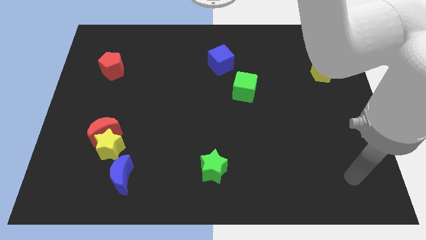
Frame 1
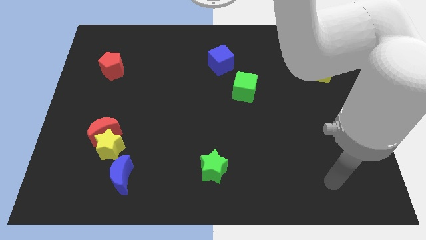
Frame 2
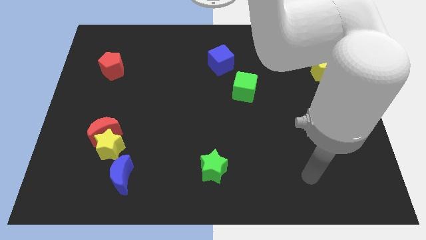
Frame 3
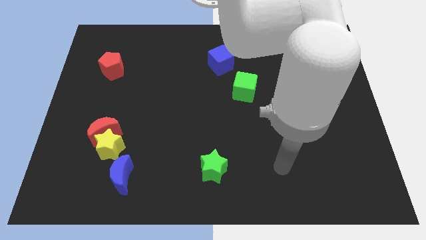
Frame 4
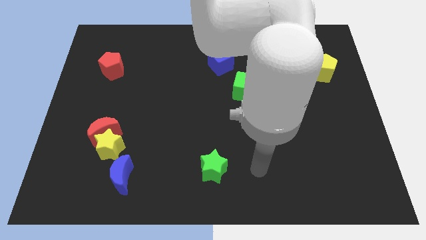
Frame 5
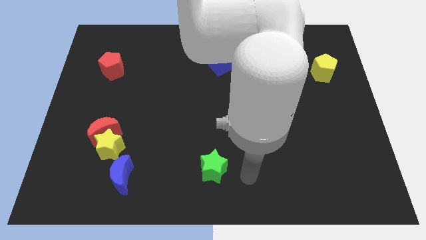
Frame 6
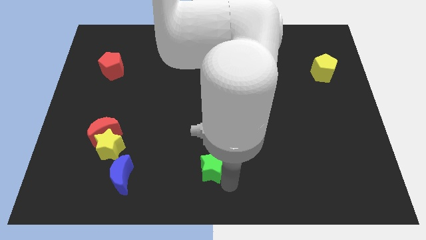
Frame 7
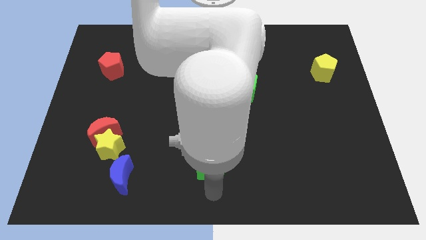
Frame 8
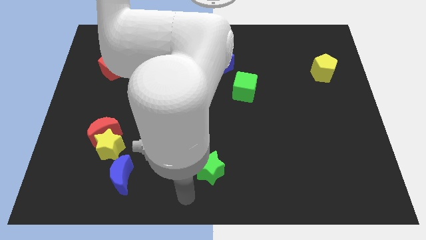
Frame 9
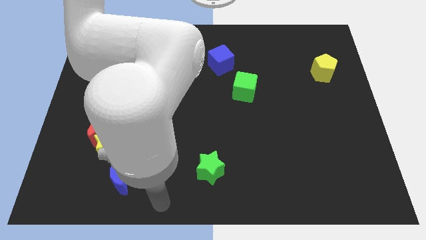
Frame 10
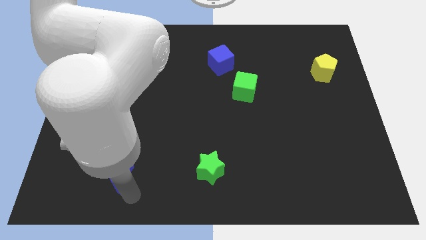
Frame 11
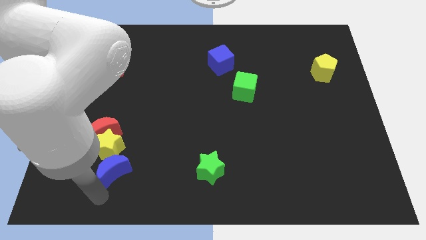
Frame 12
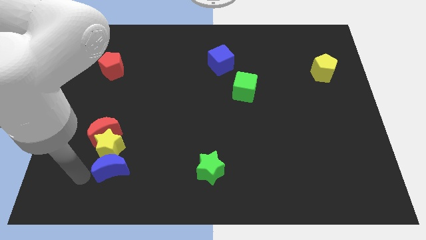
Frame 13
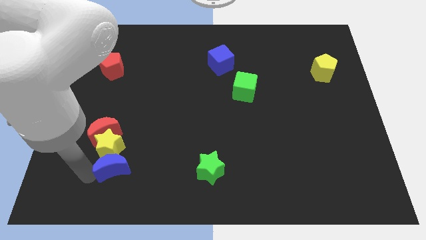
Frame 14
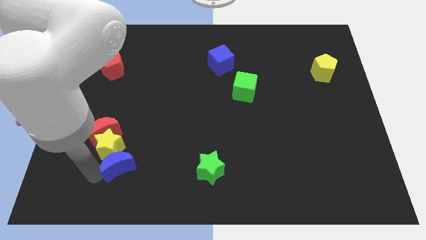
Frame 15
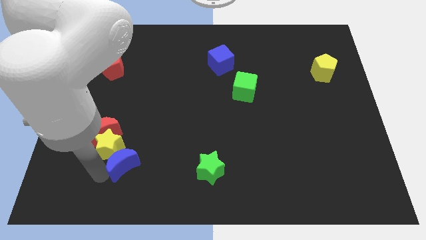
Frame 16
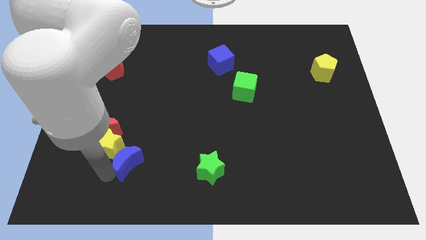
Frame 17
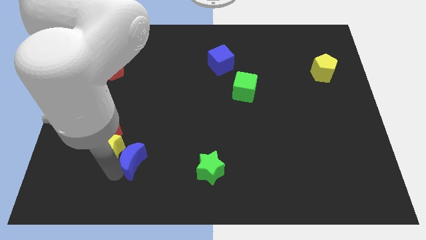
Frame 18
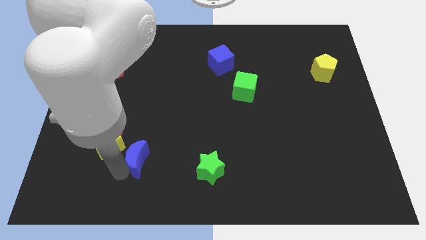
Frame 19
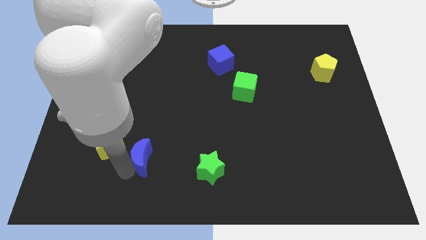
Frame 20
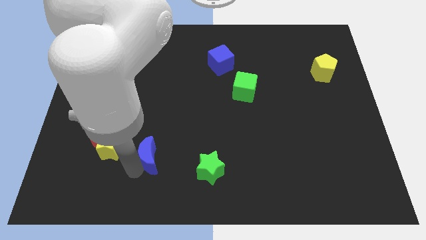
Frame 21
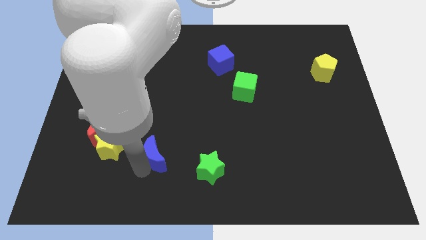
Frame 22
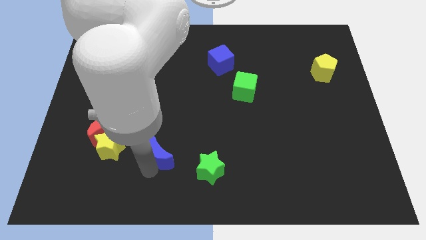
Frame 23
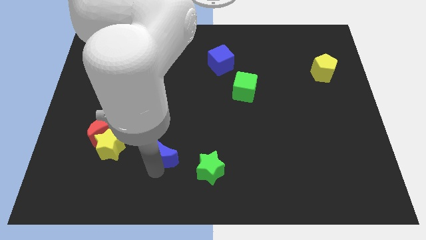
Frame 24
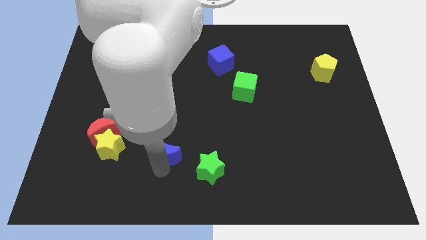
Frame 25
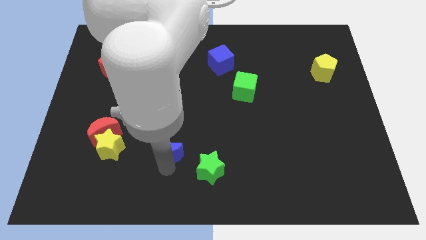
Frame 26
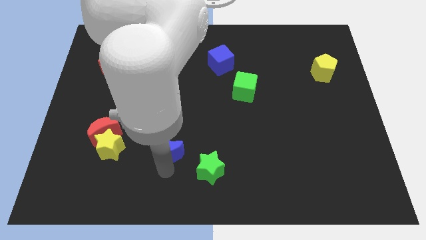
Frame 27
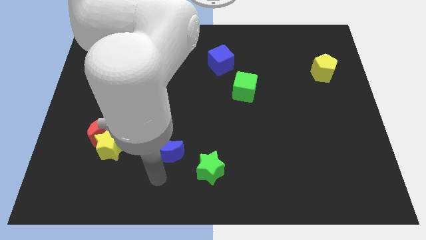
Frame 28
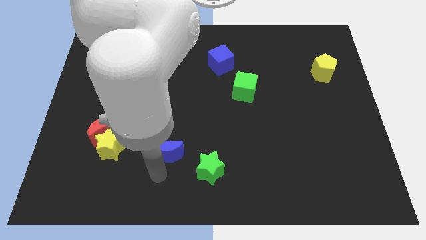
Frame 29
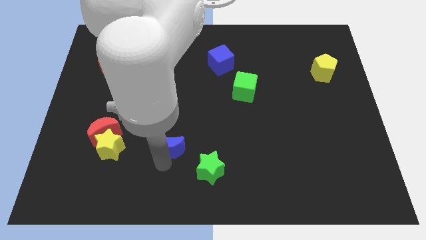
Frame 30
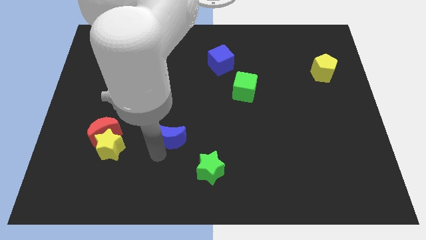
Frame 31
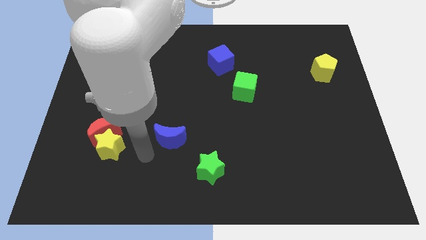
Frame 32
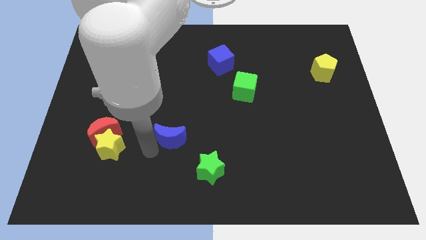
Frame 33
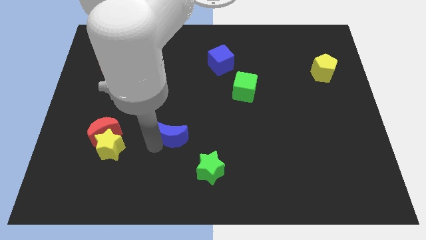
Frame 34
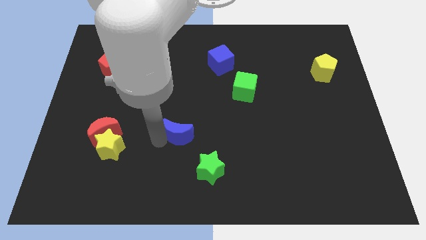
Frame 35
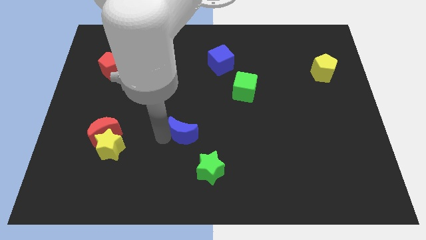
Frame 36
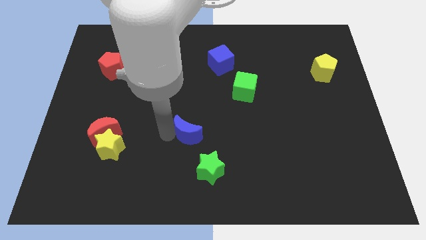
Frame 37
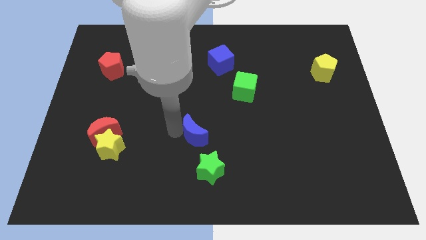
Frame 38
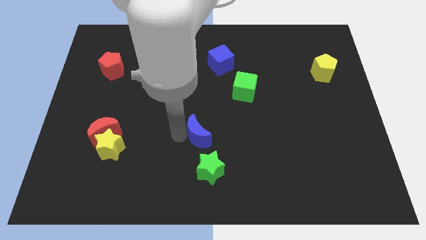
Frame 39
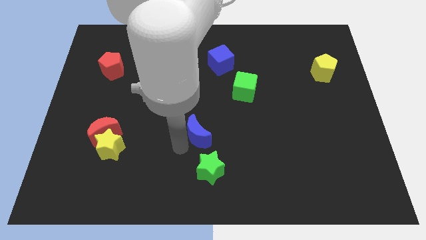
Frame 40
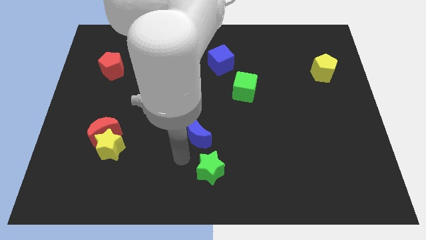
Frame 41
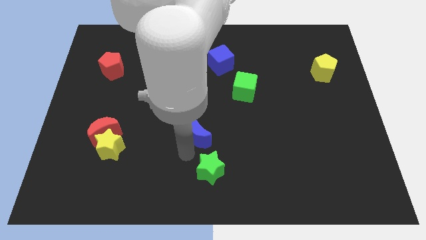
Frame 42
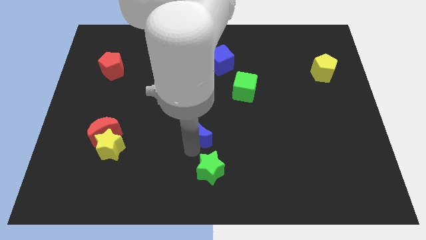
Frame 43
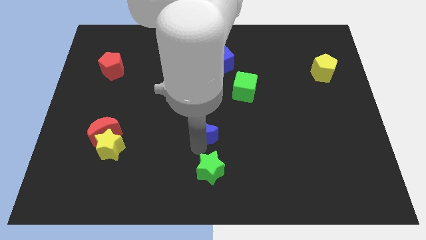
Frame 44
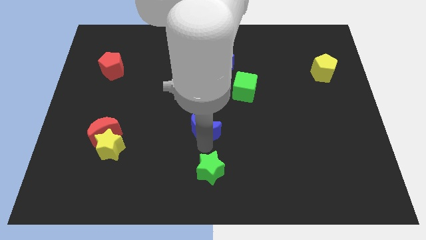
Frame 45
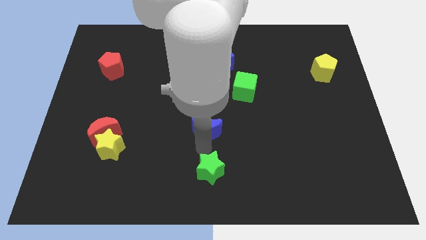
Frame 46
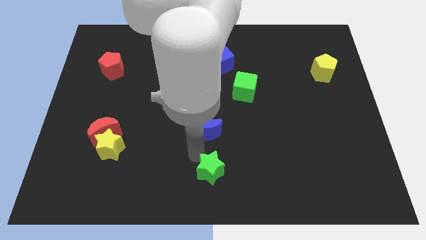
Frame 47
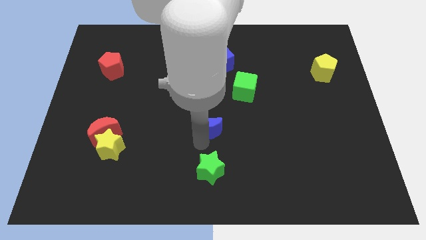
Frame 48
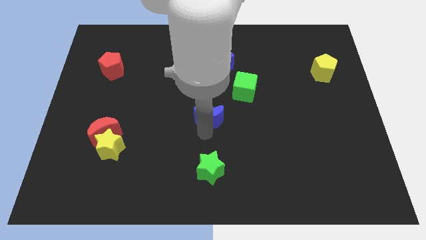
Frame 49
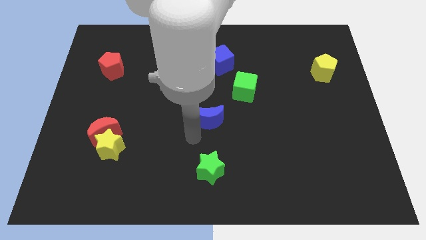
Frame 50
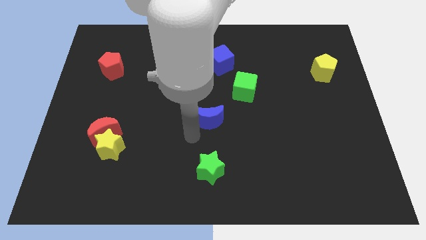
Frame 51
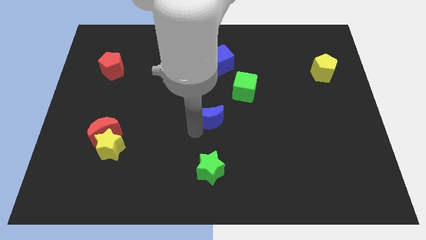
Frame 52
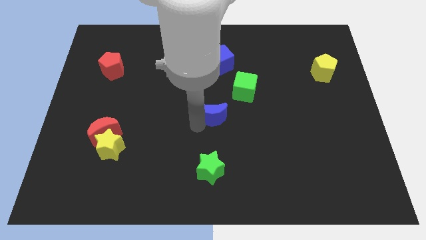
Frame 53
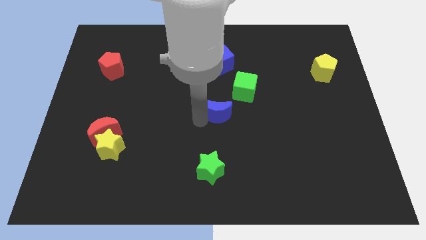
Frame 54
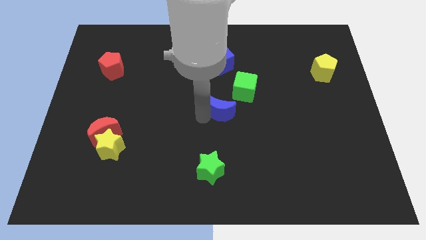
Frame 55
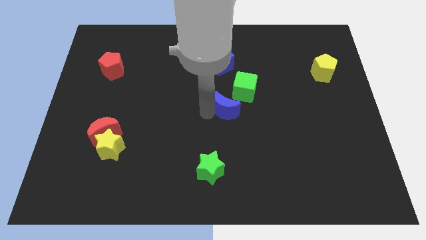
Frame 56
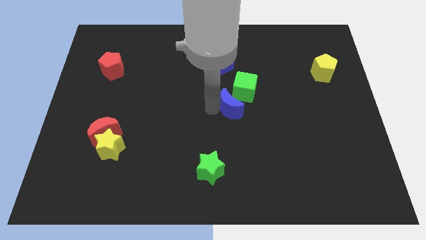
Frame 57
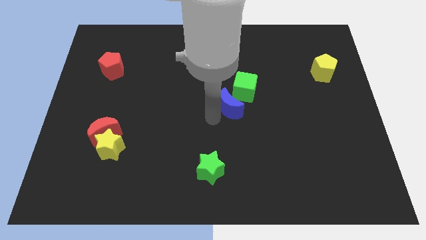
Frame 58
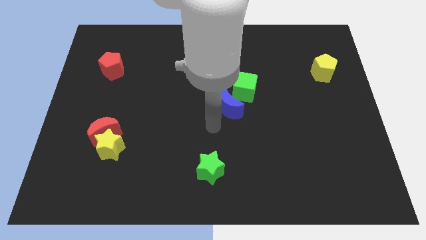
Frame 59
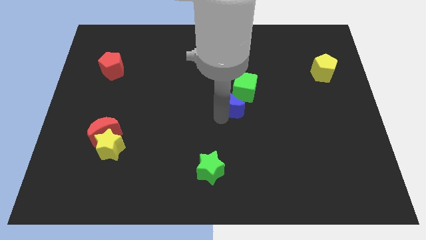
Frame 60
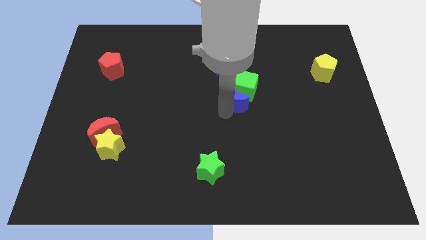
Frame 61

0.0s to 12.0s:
slide the blue moon close to the green cube

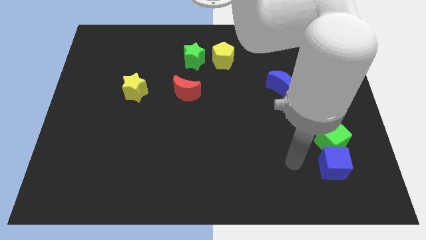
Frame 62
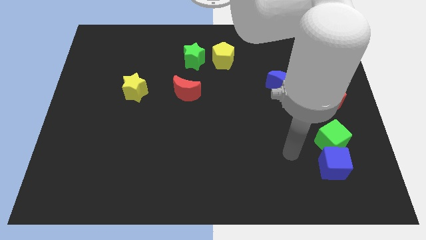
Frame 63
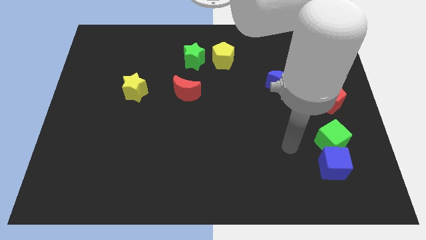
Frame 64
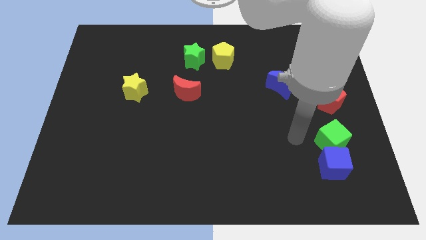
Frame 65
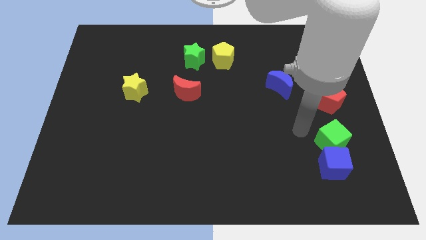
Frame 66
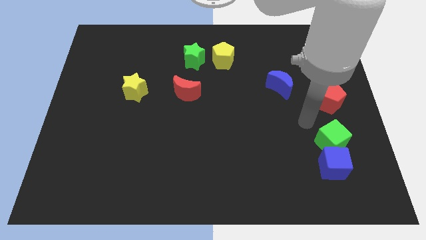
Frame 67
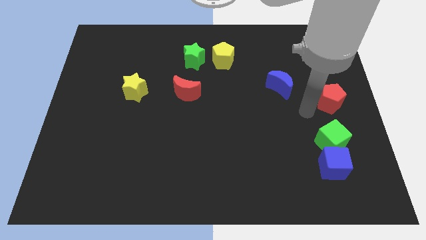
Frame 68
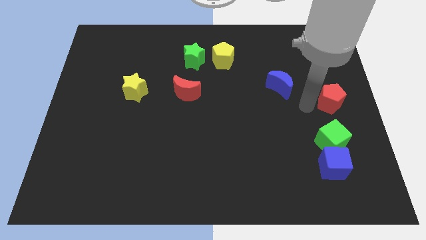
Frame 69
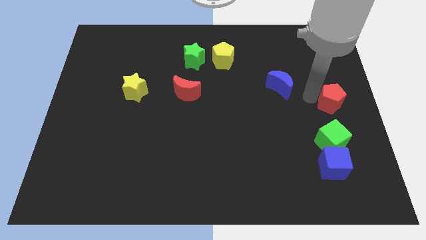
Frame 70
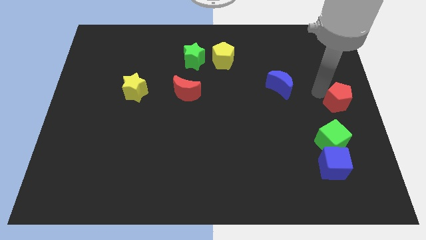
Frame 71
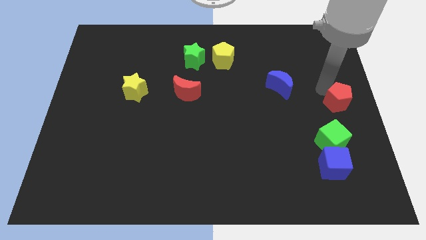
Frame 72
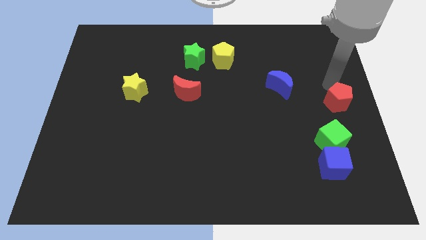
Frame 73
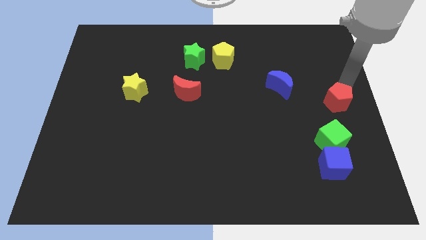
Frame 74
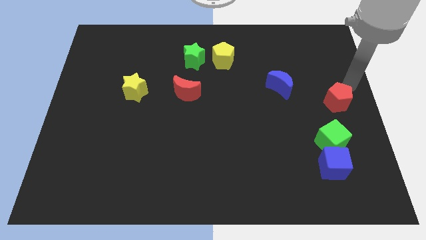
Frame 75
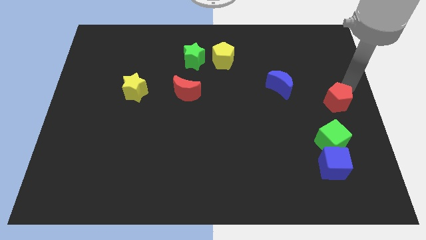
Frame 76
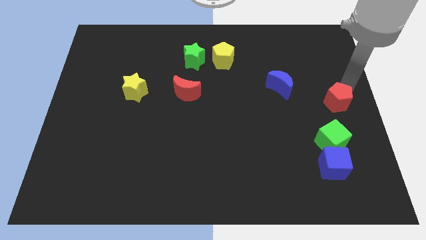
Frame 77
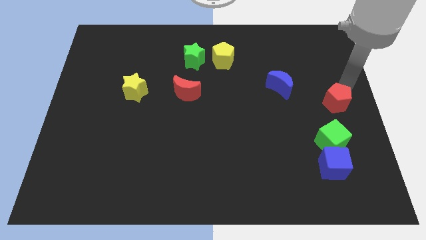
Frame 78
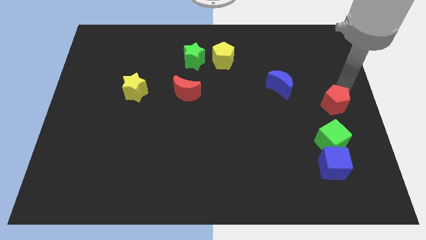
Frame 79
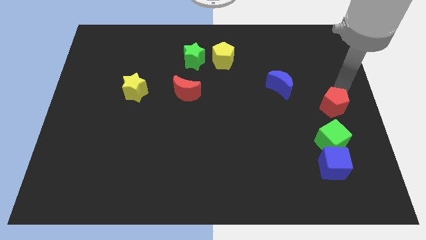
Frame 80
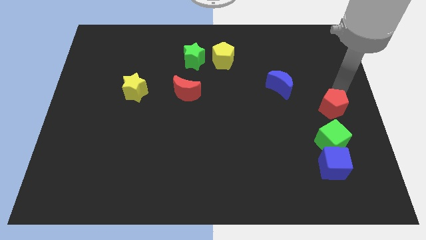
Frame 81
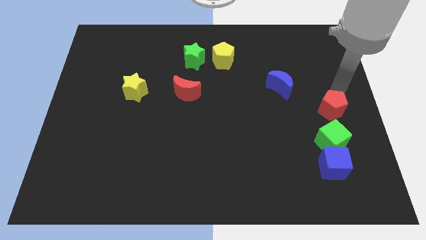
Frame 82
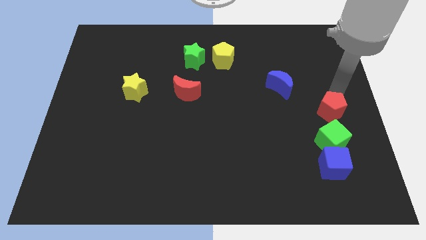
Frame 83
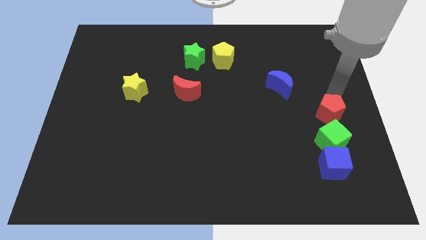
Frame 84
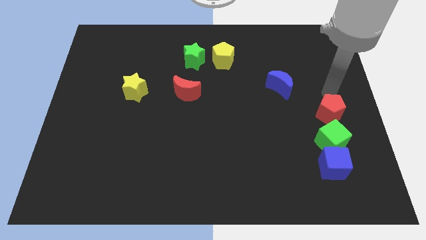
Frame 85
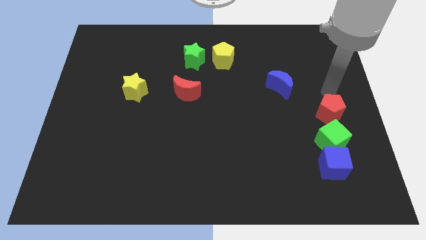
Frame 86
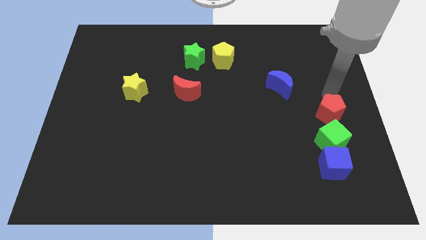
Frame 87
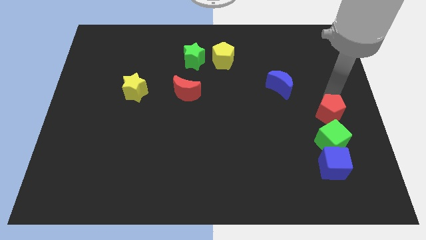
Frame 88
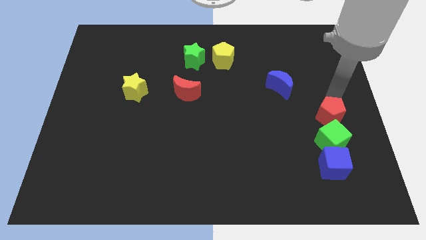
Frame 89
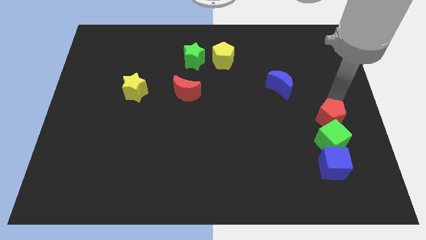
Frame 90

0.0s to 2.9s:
put the red pentagon close to the green cube
